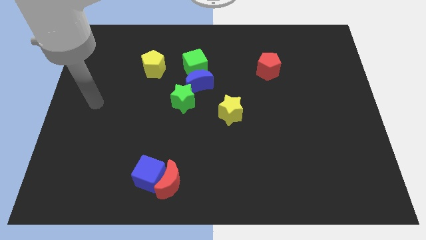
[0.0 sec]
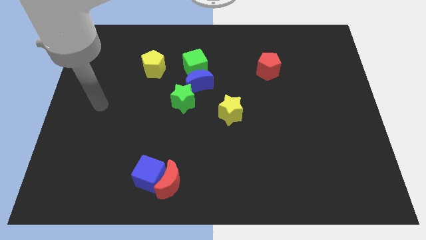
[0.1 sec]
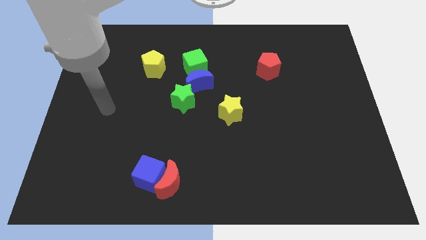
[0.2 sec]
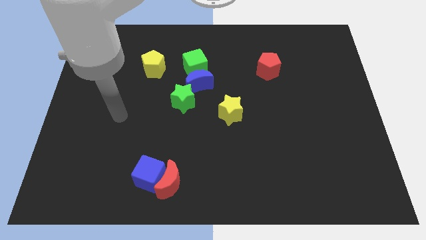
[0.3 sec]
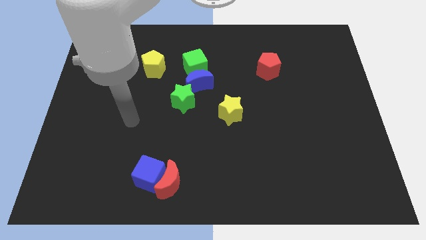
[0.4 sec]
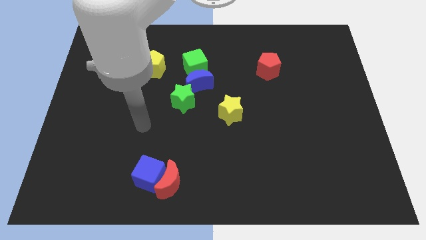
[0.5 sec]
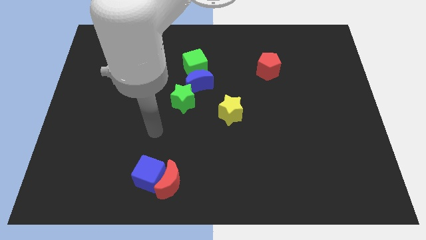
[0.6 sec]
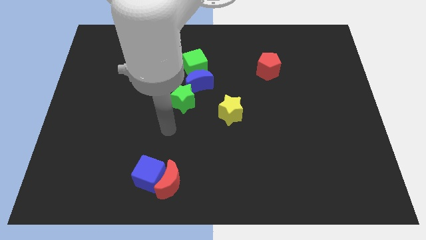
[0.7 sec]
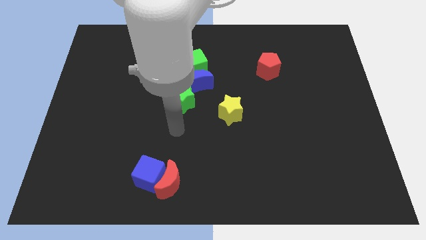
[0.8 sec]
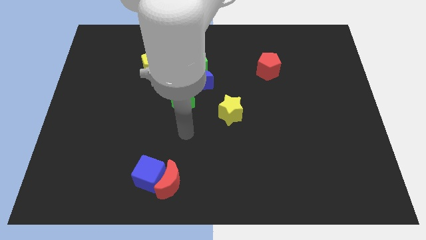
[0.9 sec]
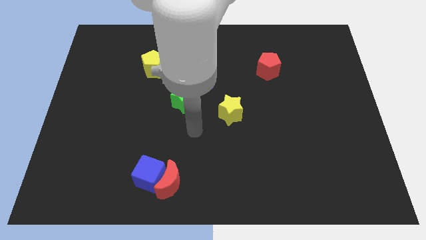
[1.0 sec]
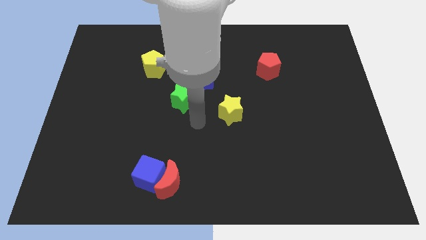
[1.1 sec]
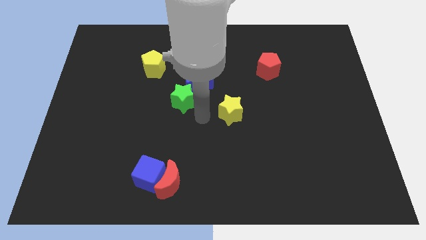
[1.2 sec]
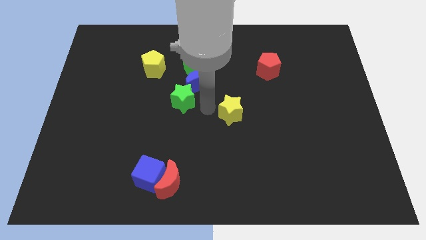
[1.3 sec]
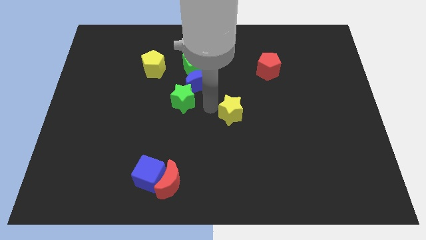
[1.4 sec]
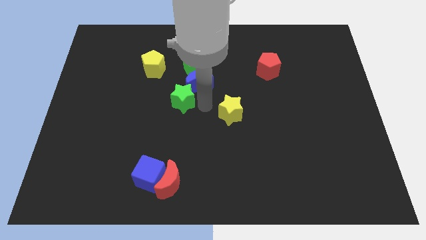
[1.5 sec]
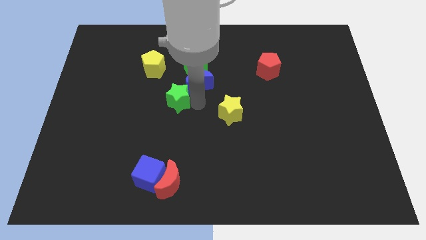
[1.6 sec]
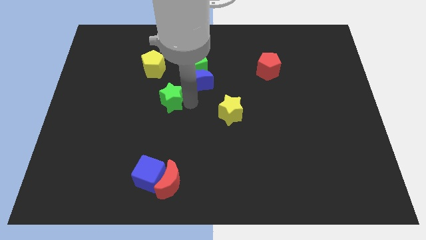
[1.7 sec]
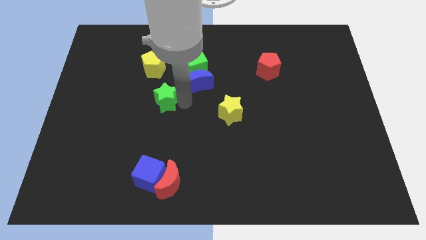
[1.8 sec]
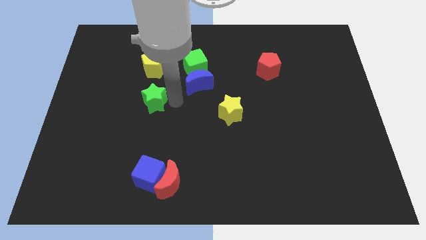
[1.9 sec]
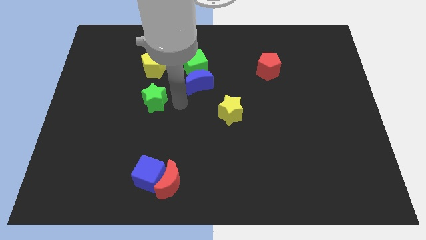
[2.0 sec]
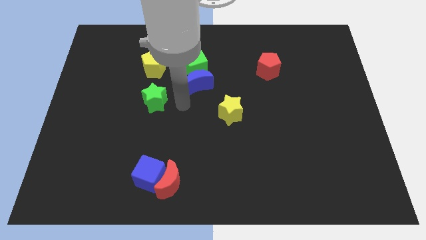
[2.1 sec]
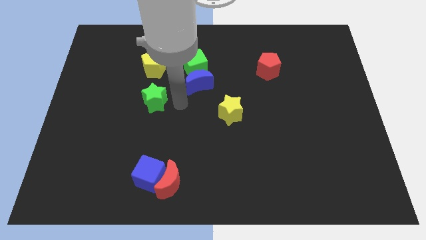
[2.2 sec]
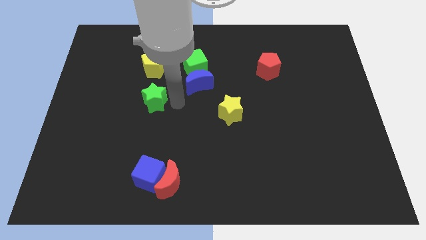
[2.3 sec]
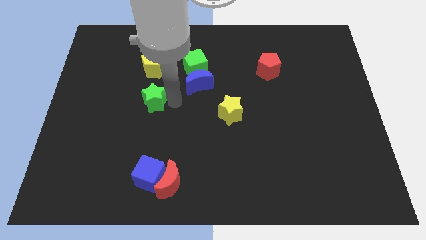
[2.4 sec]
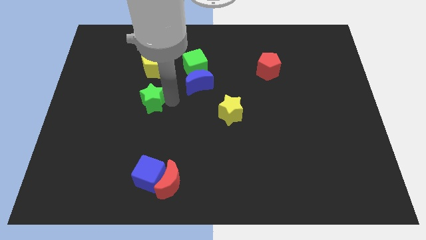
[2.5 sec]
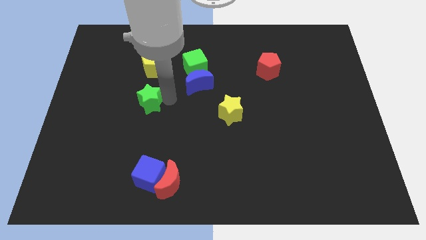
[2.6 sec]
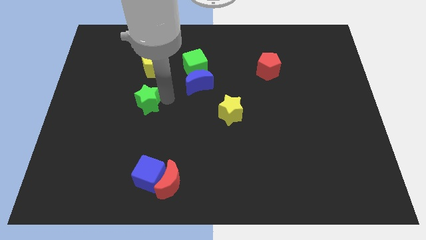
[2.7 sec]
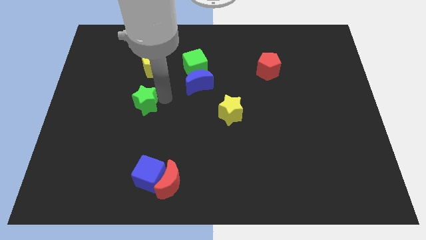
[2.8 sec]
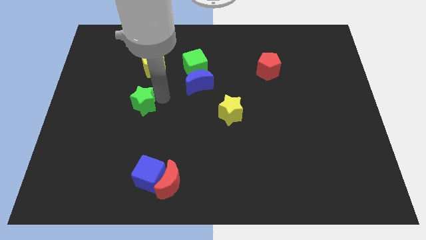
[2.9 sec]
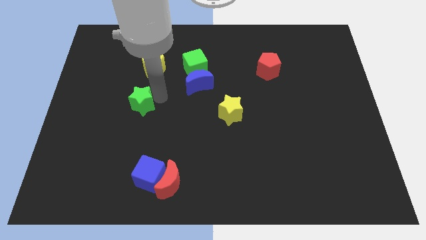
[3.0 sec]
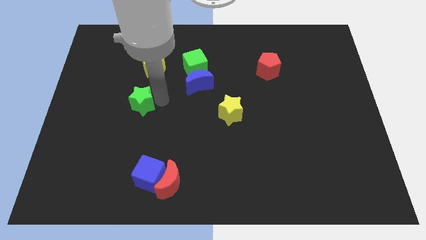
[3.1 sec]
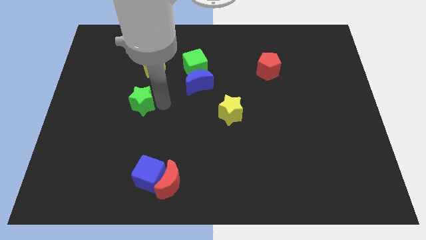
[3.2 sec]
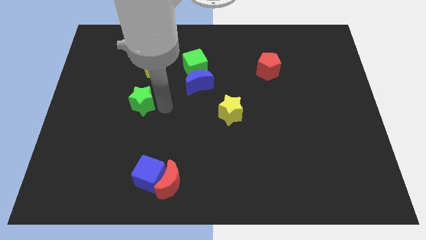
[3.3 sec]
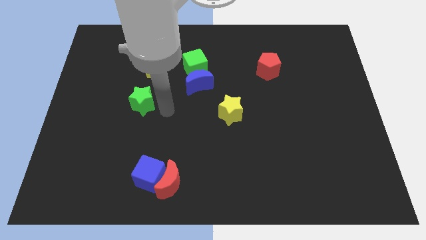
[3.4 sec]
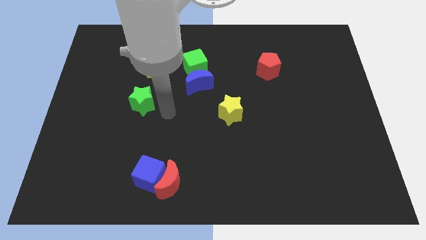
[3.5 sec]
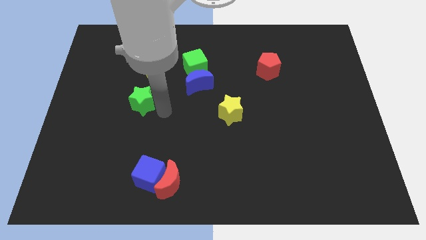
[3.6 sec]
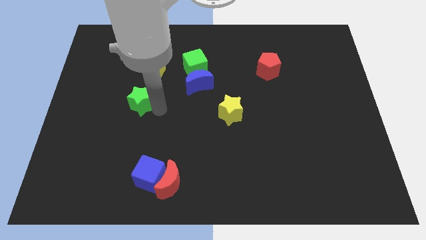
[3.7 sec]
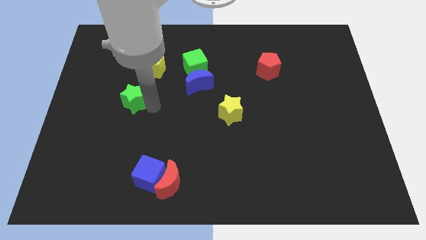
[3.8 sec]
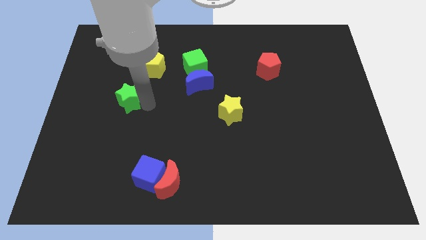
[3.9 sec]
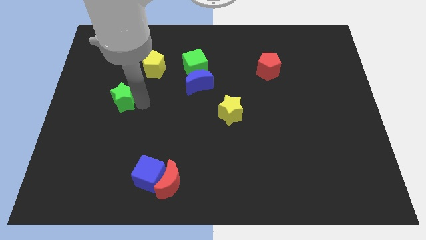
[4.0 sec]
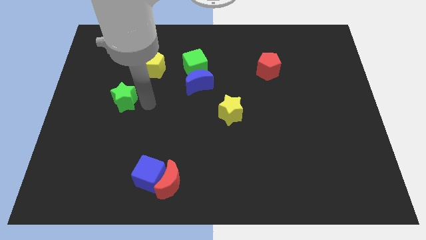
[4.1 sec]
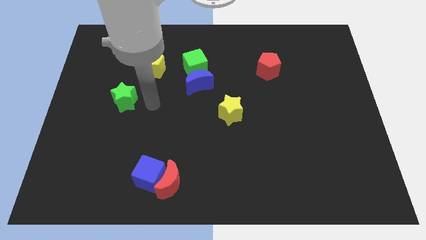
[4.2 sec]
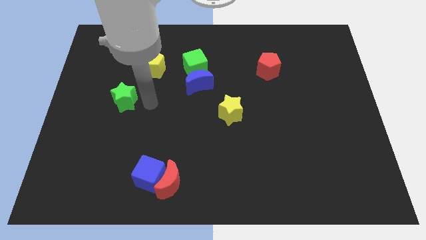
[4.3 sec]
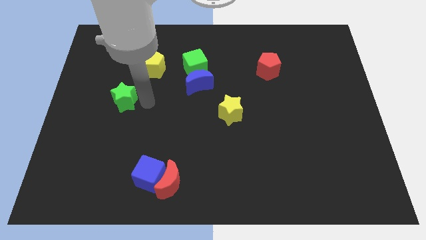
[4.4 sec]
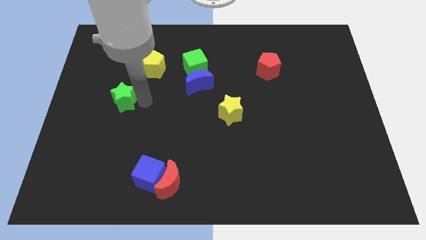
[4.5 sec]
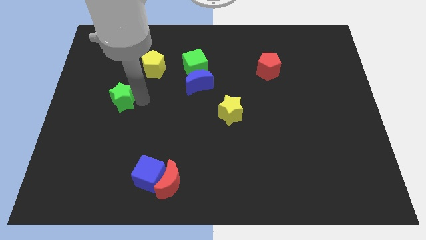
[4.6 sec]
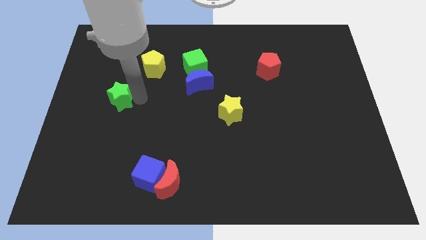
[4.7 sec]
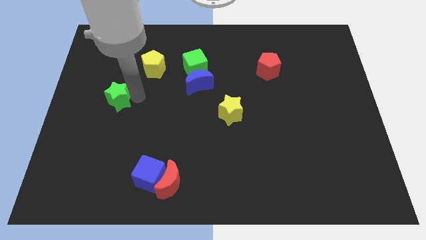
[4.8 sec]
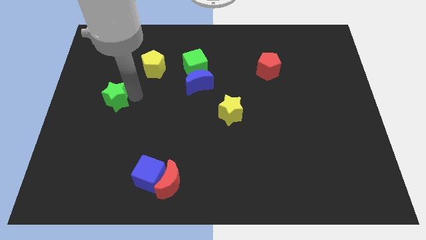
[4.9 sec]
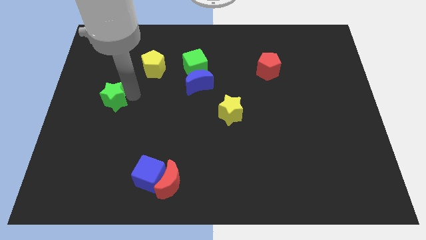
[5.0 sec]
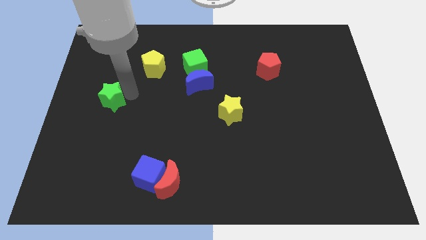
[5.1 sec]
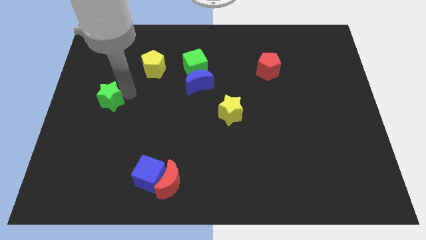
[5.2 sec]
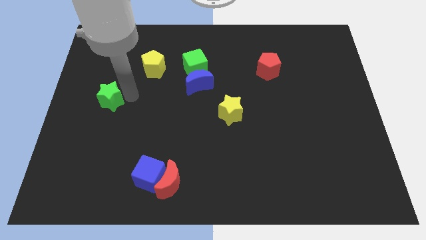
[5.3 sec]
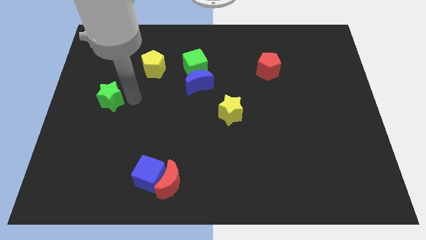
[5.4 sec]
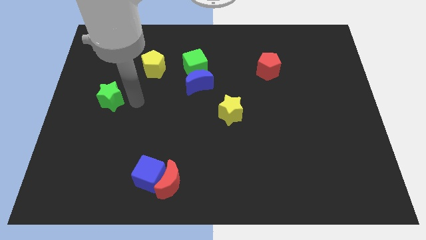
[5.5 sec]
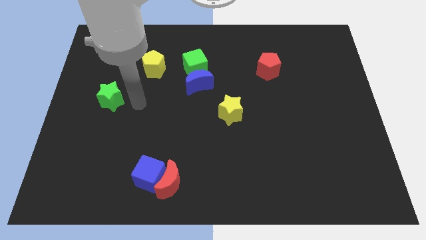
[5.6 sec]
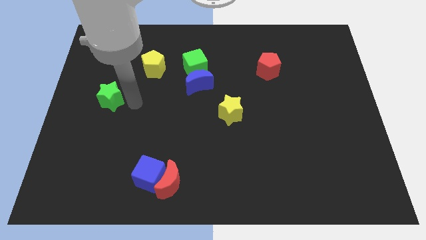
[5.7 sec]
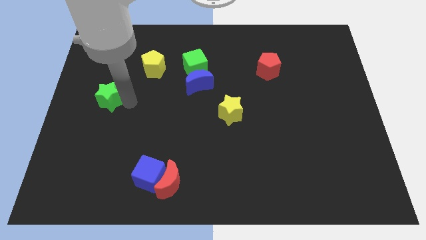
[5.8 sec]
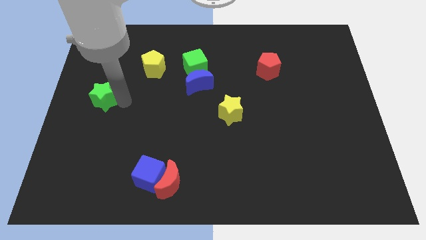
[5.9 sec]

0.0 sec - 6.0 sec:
slide the green star to the left side of the board

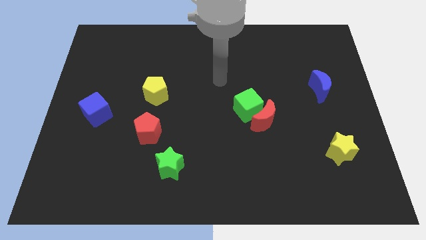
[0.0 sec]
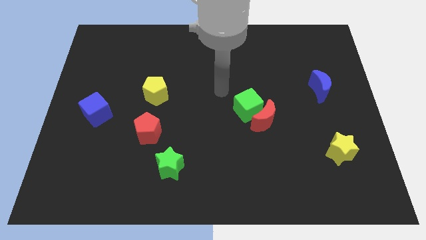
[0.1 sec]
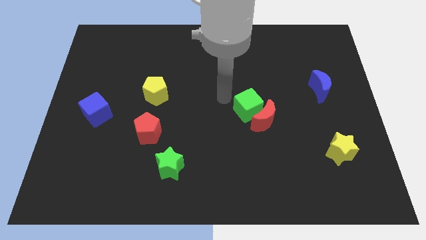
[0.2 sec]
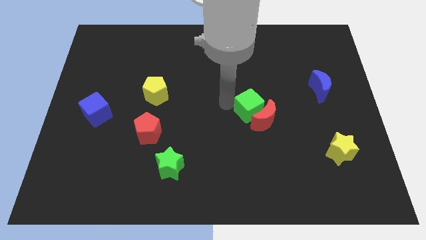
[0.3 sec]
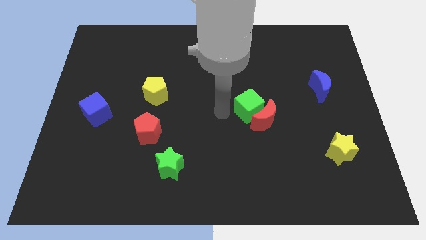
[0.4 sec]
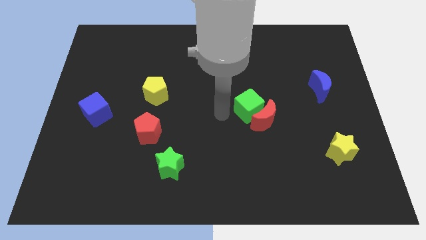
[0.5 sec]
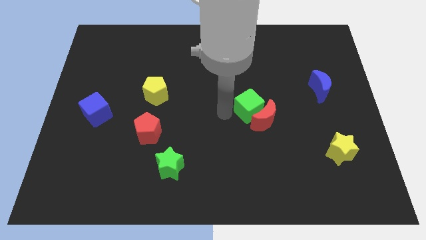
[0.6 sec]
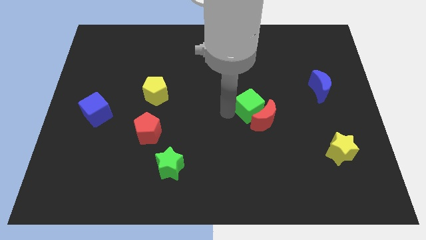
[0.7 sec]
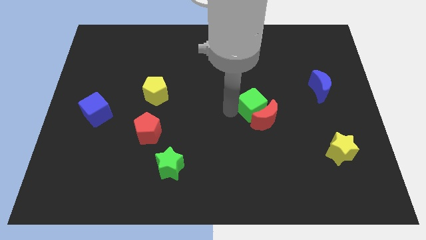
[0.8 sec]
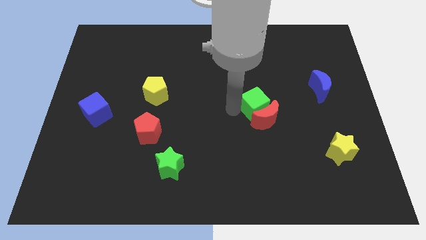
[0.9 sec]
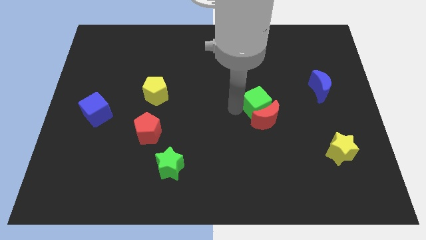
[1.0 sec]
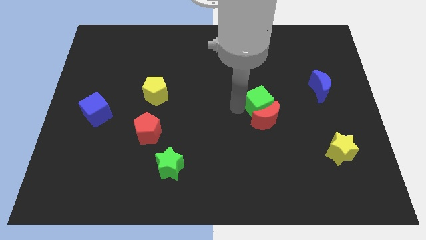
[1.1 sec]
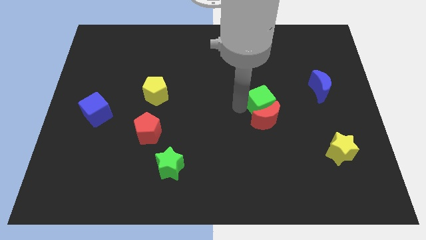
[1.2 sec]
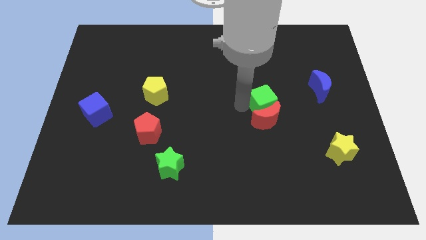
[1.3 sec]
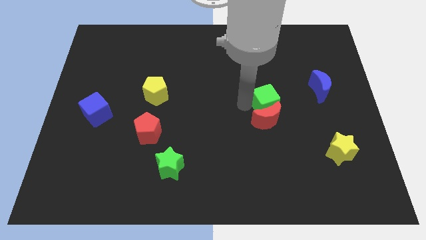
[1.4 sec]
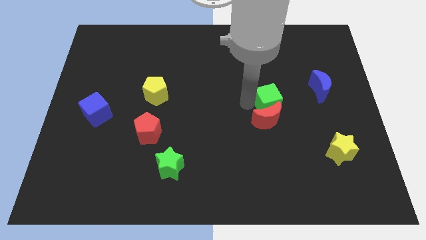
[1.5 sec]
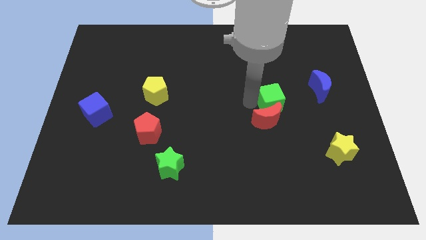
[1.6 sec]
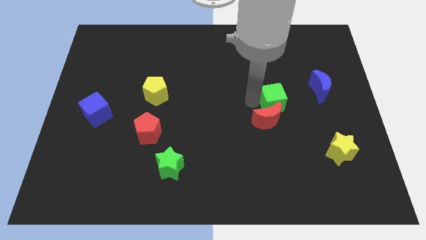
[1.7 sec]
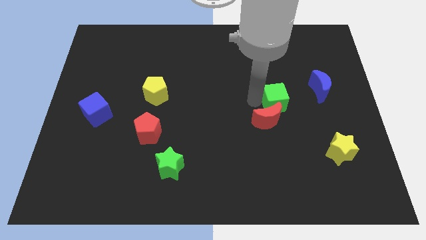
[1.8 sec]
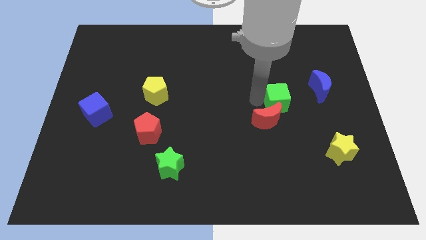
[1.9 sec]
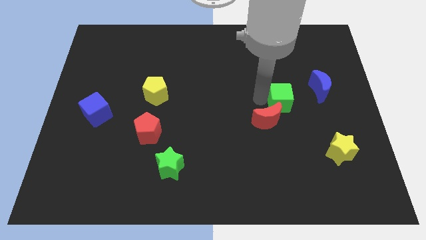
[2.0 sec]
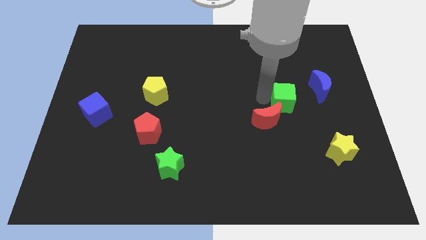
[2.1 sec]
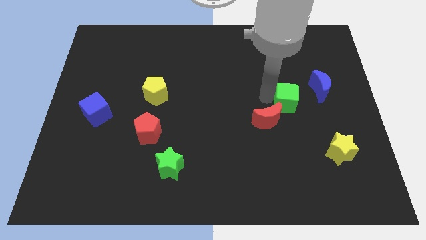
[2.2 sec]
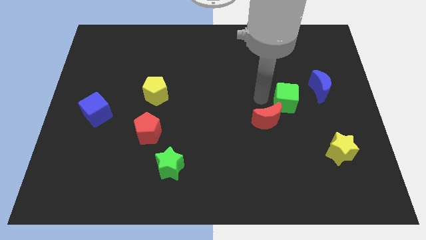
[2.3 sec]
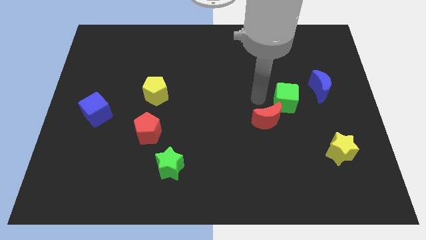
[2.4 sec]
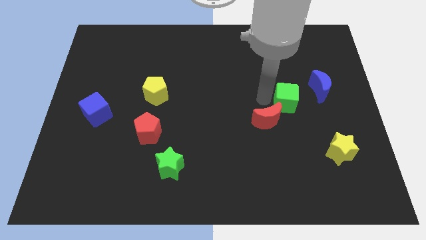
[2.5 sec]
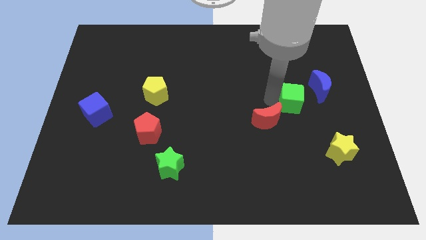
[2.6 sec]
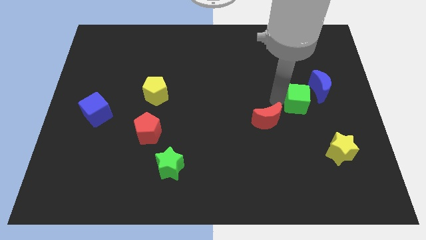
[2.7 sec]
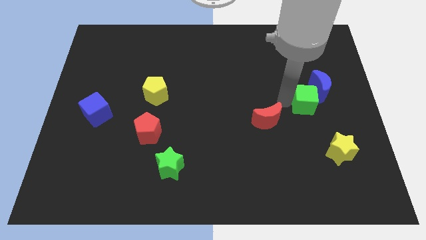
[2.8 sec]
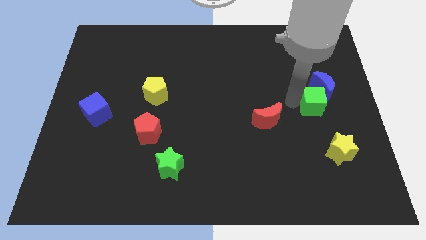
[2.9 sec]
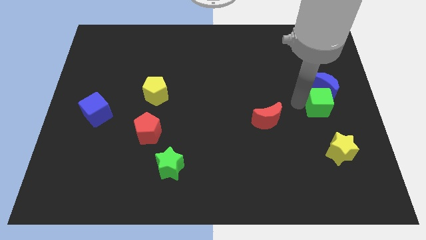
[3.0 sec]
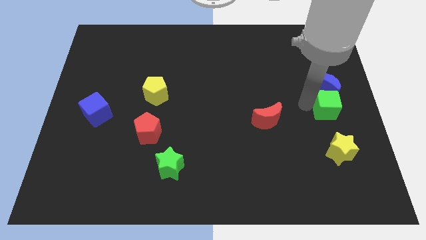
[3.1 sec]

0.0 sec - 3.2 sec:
push the green cube to the center right
